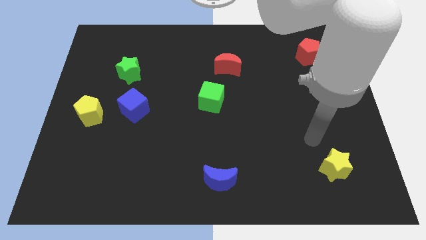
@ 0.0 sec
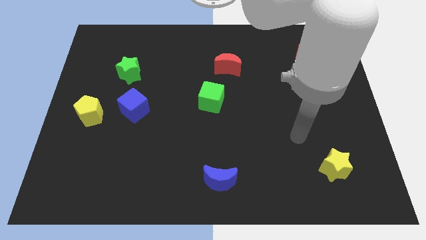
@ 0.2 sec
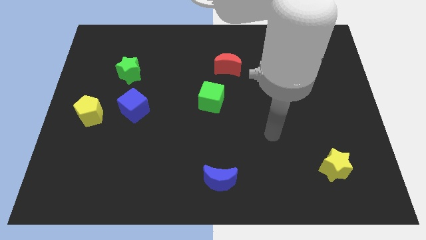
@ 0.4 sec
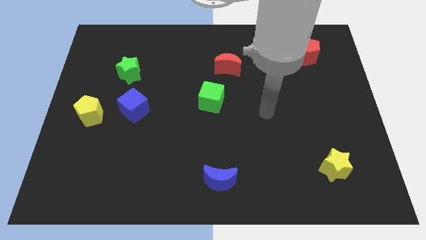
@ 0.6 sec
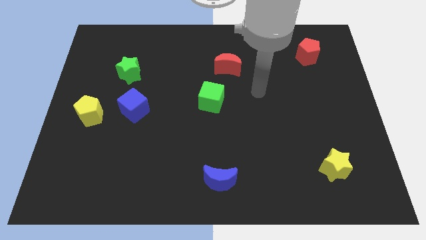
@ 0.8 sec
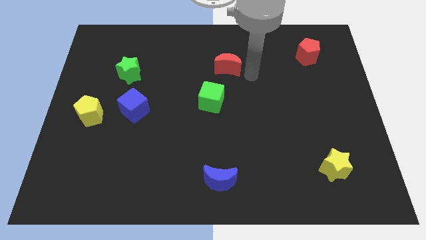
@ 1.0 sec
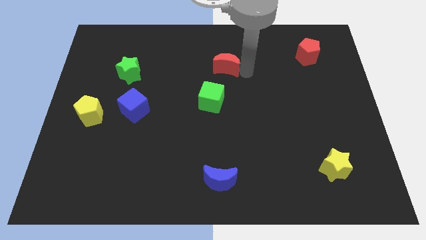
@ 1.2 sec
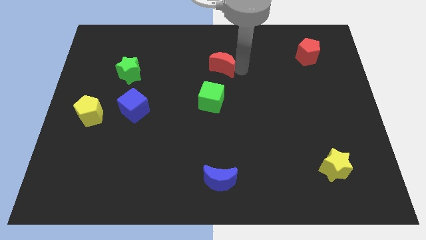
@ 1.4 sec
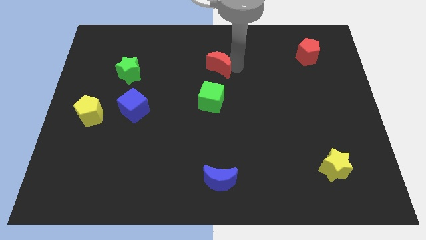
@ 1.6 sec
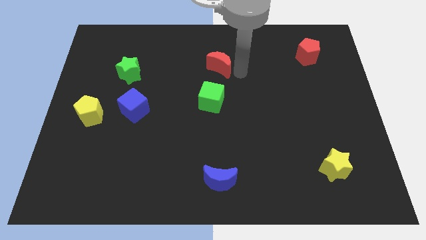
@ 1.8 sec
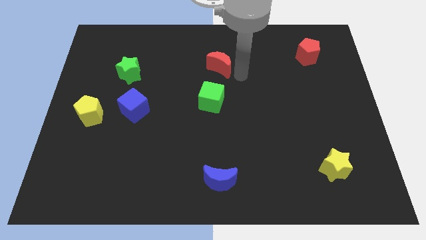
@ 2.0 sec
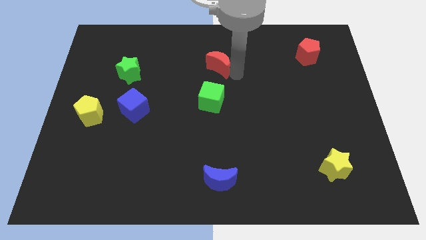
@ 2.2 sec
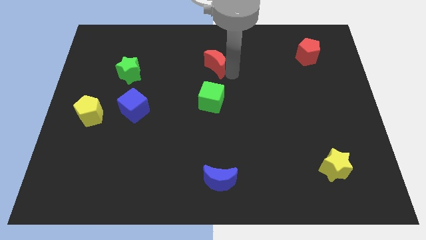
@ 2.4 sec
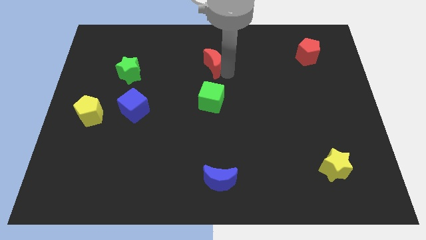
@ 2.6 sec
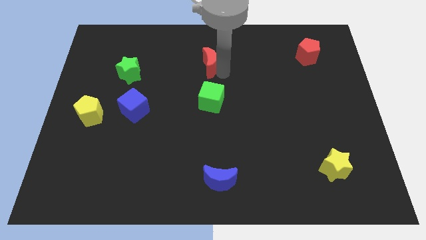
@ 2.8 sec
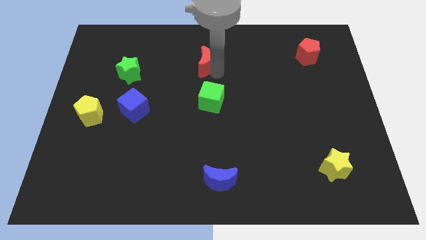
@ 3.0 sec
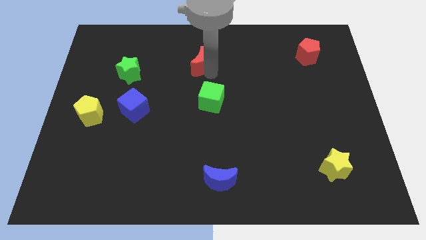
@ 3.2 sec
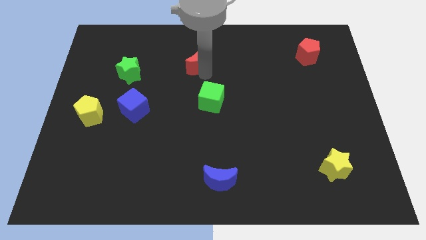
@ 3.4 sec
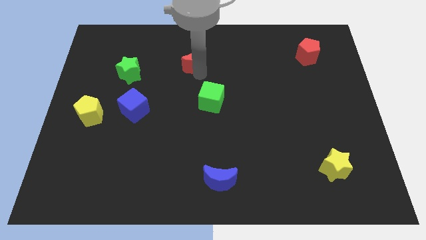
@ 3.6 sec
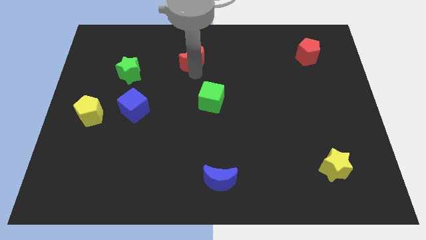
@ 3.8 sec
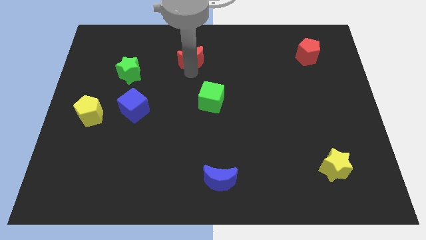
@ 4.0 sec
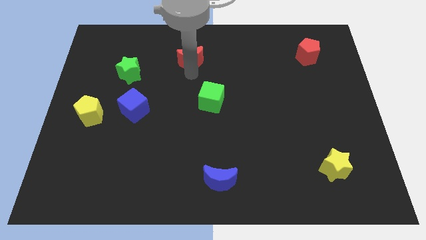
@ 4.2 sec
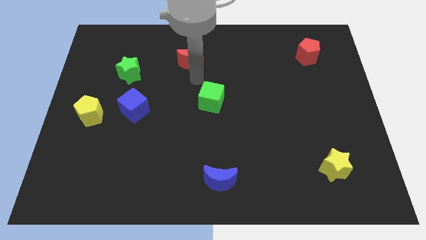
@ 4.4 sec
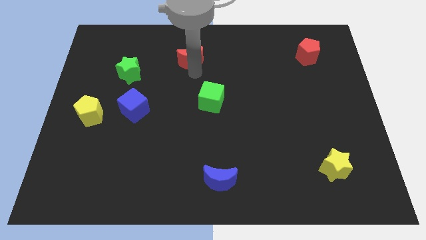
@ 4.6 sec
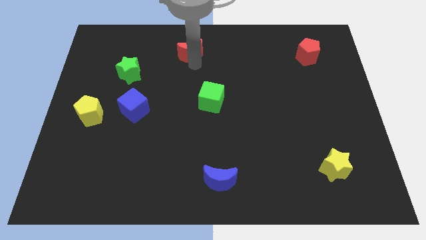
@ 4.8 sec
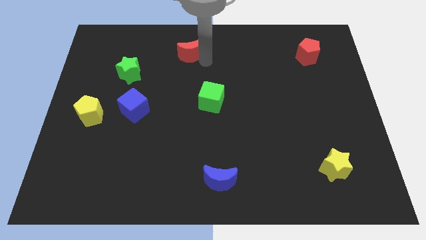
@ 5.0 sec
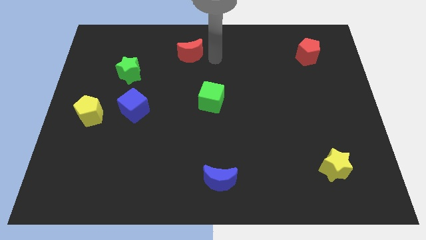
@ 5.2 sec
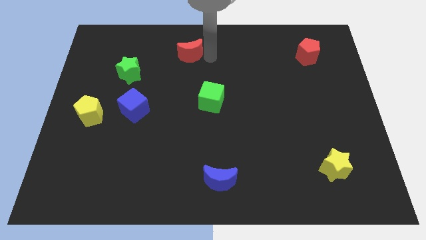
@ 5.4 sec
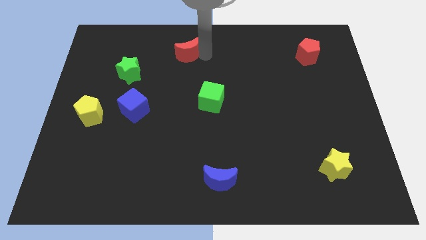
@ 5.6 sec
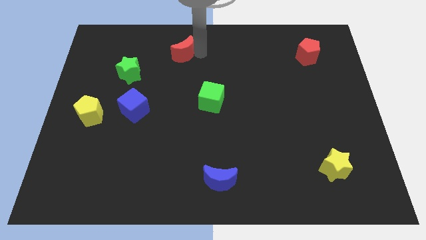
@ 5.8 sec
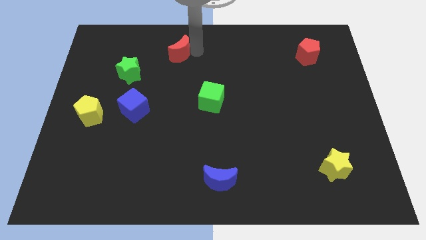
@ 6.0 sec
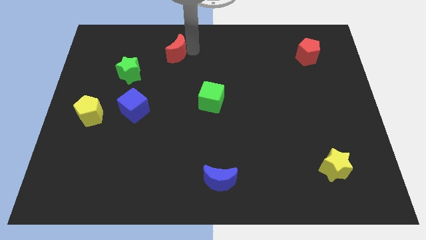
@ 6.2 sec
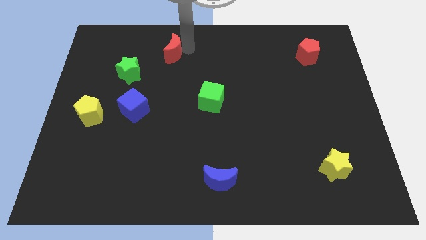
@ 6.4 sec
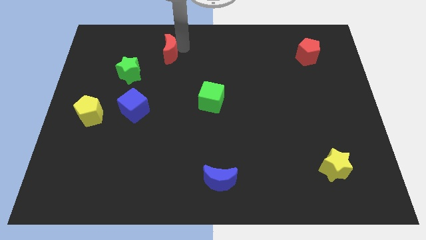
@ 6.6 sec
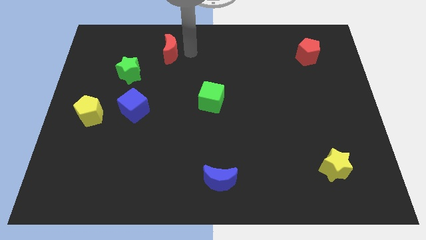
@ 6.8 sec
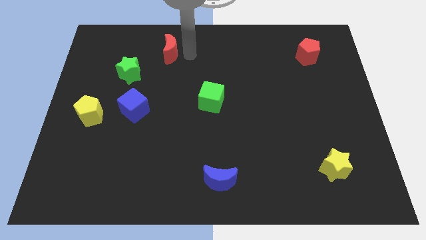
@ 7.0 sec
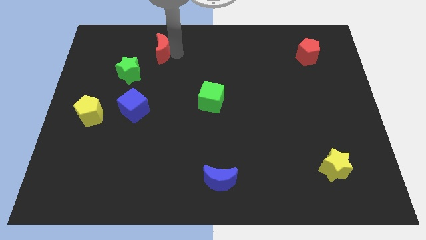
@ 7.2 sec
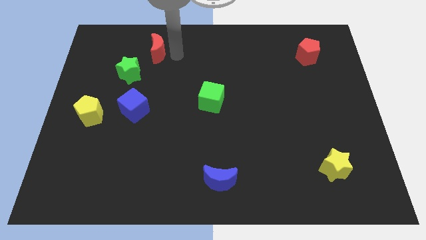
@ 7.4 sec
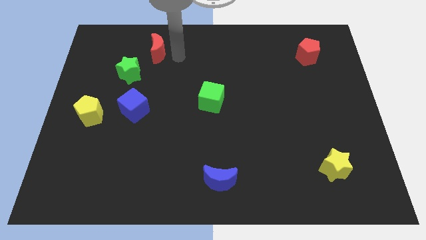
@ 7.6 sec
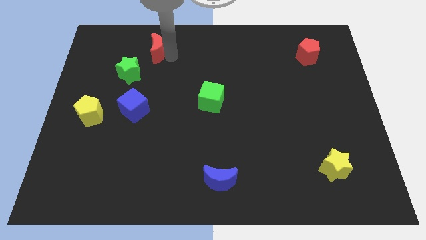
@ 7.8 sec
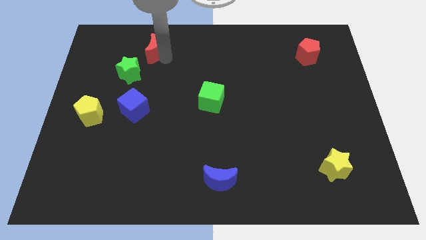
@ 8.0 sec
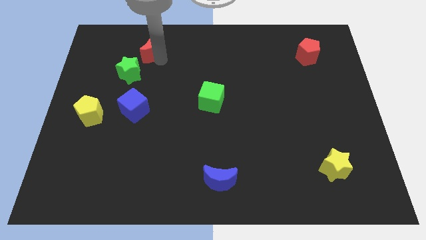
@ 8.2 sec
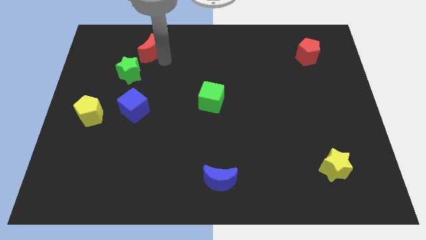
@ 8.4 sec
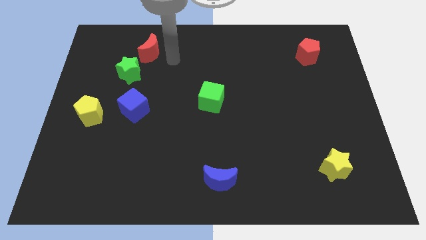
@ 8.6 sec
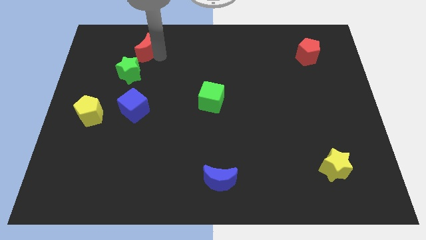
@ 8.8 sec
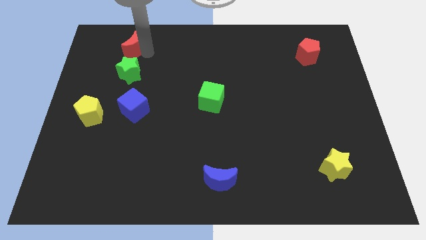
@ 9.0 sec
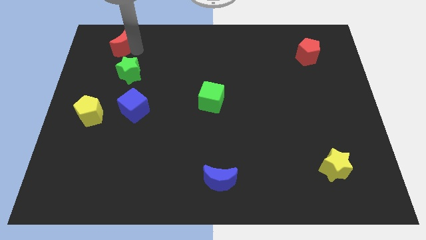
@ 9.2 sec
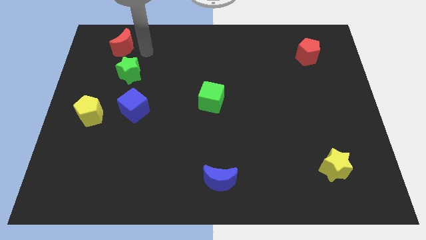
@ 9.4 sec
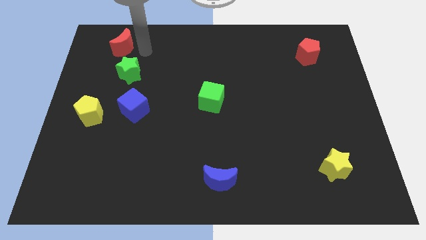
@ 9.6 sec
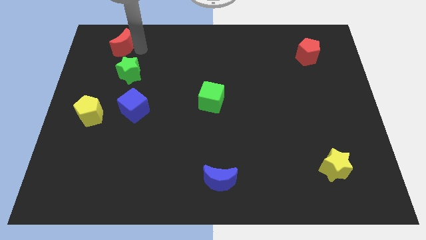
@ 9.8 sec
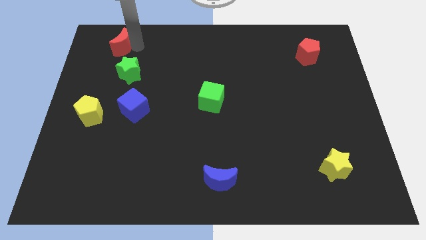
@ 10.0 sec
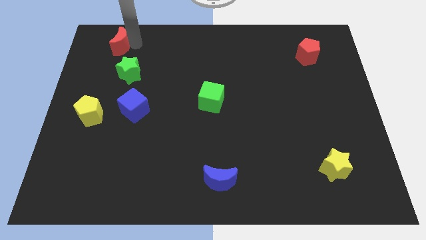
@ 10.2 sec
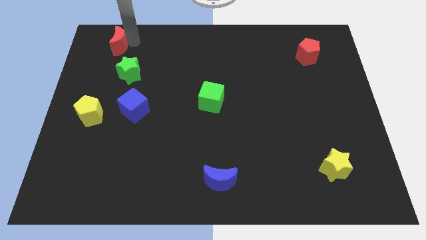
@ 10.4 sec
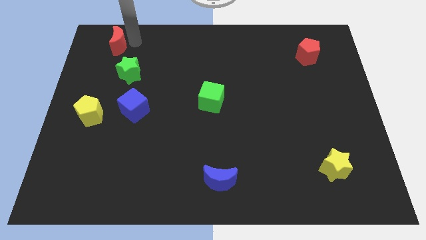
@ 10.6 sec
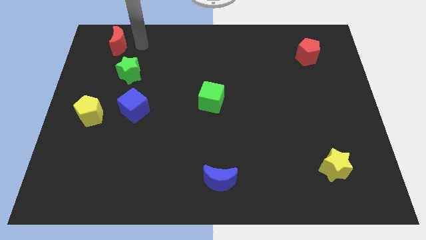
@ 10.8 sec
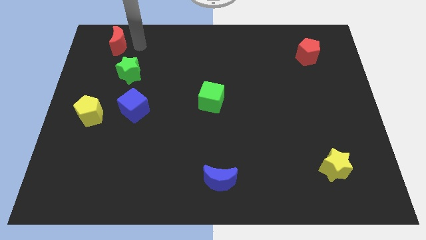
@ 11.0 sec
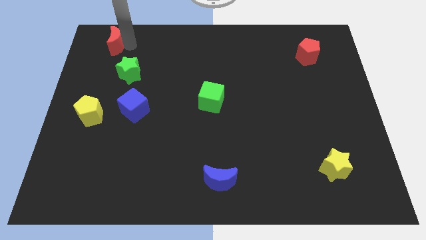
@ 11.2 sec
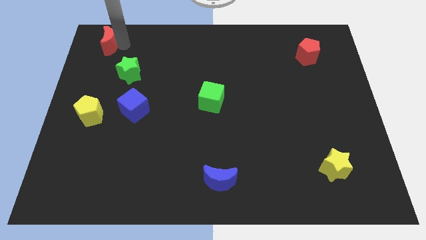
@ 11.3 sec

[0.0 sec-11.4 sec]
put the red moon to the top left

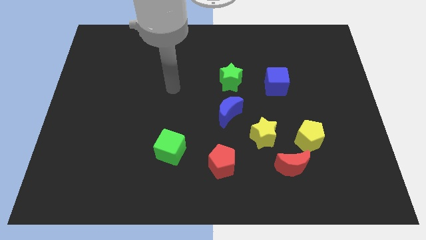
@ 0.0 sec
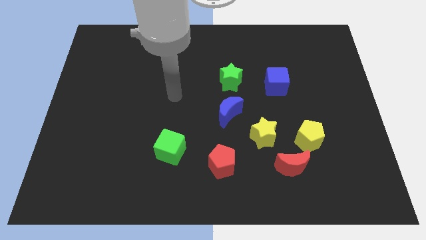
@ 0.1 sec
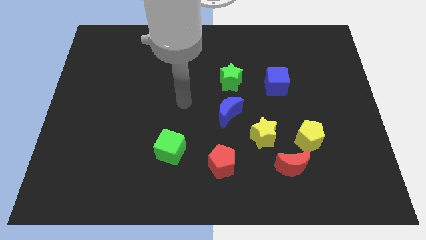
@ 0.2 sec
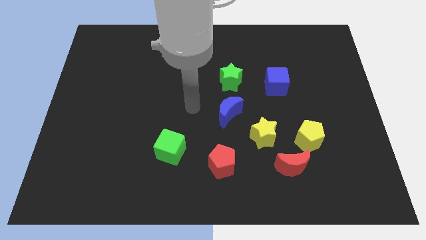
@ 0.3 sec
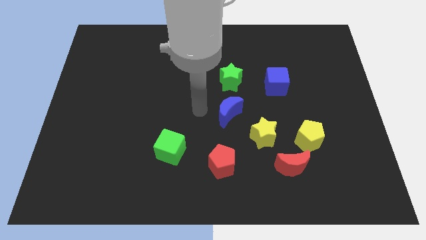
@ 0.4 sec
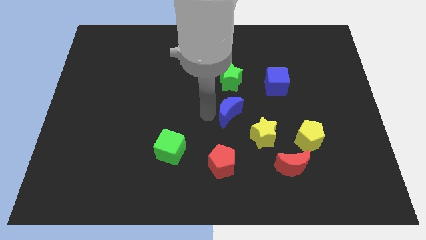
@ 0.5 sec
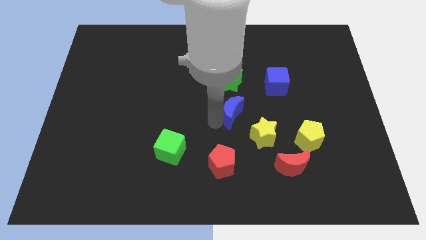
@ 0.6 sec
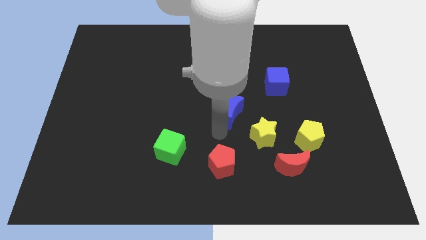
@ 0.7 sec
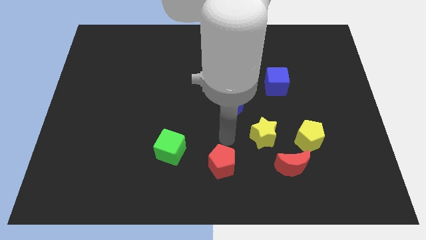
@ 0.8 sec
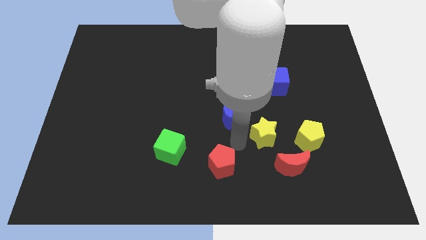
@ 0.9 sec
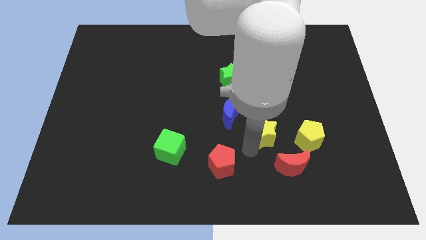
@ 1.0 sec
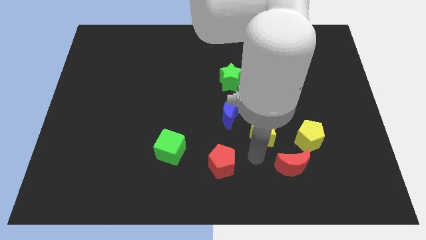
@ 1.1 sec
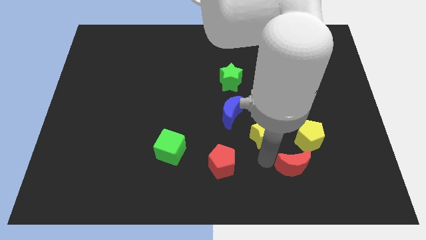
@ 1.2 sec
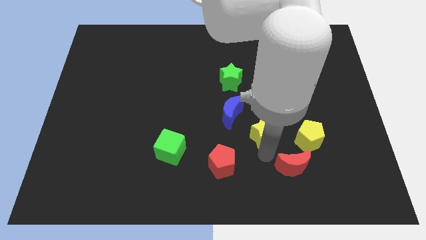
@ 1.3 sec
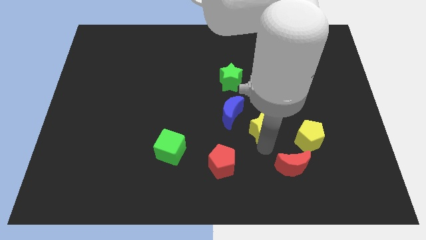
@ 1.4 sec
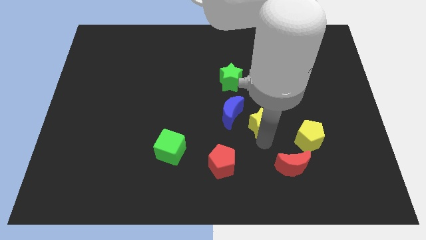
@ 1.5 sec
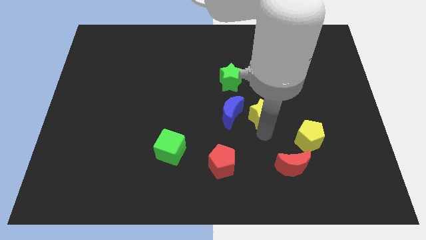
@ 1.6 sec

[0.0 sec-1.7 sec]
move the yellow star to the center
